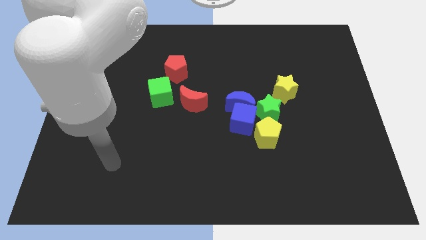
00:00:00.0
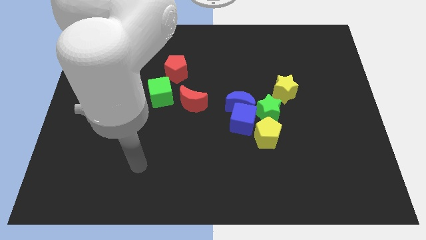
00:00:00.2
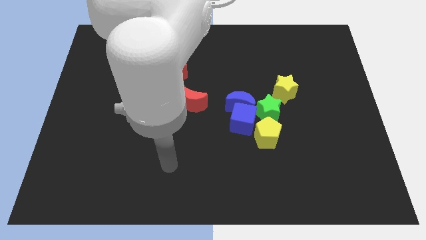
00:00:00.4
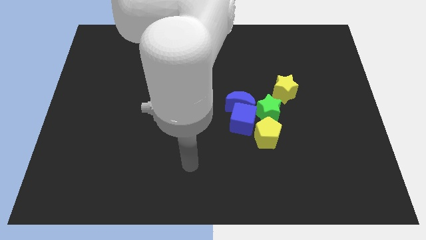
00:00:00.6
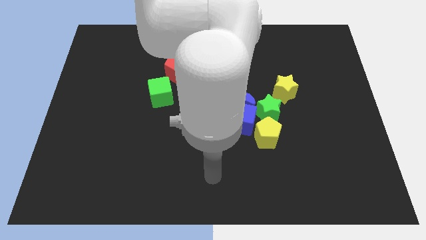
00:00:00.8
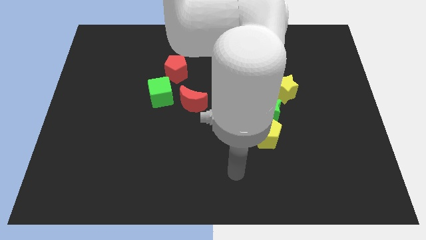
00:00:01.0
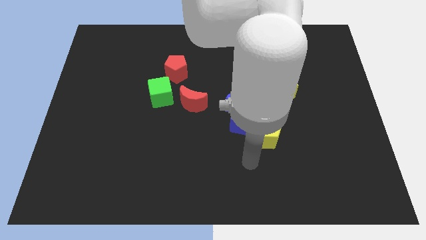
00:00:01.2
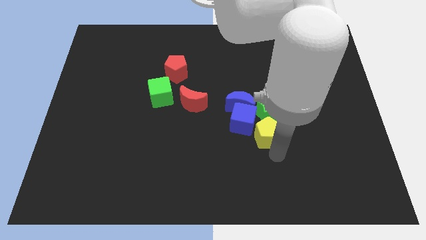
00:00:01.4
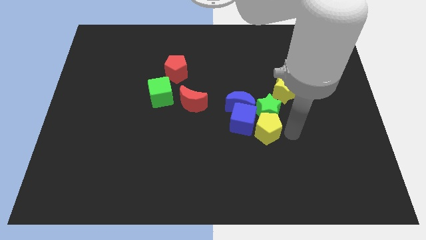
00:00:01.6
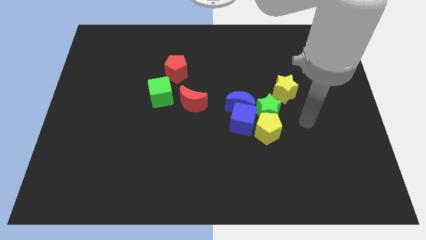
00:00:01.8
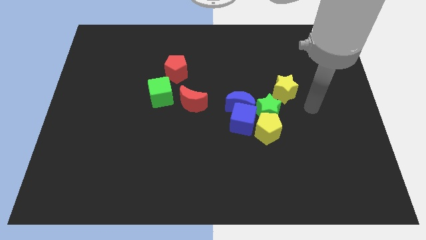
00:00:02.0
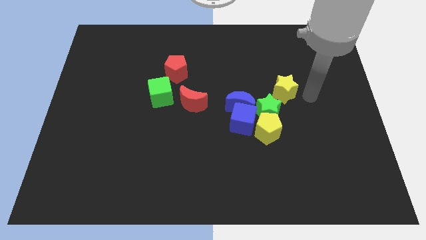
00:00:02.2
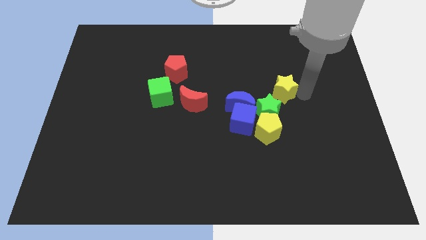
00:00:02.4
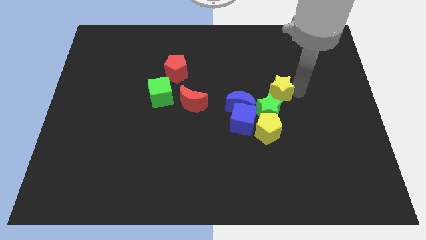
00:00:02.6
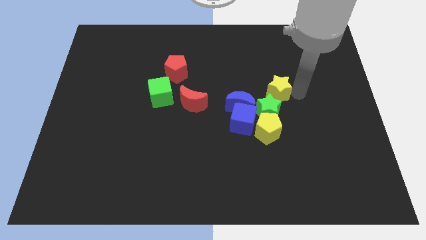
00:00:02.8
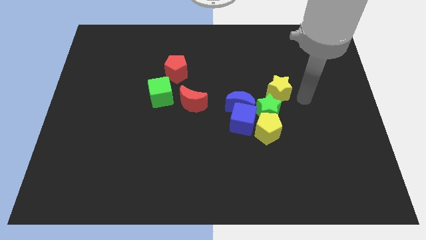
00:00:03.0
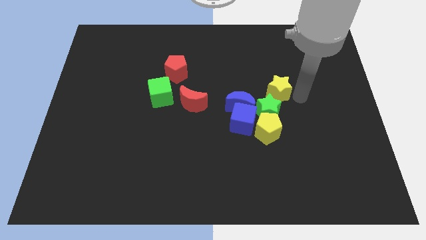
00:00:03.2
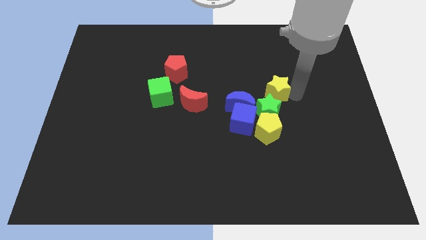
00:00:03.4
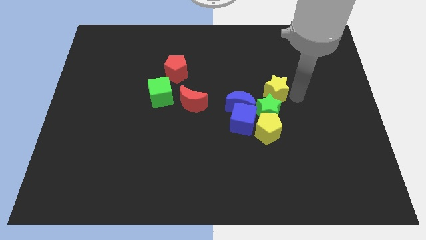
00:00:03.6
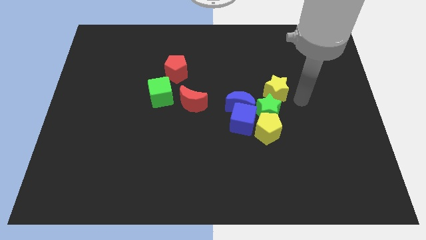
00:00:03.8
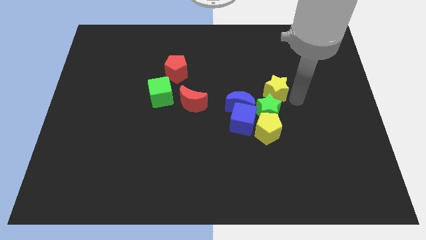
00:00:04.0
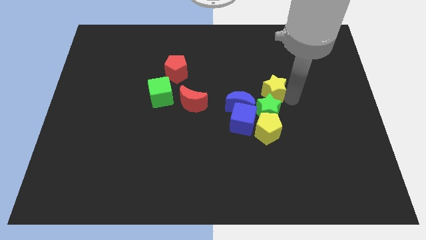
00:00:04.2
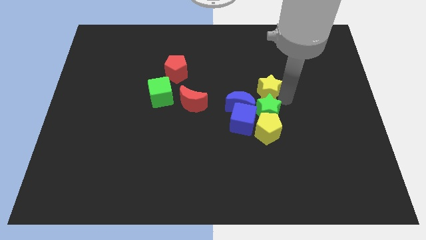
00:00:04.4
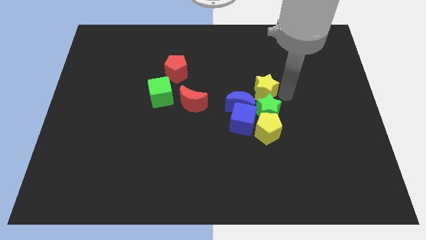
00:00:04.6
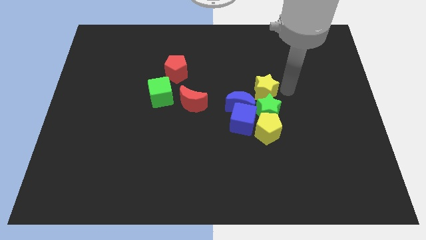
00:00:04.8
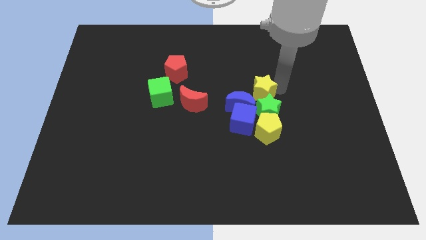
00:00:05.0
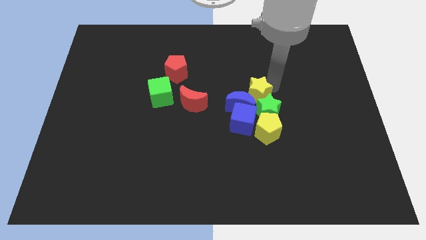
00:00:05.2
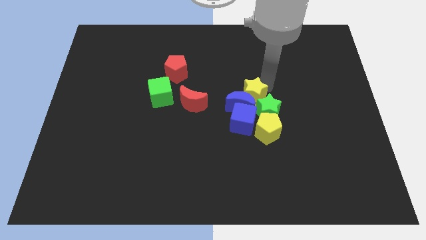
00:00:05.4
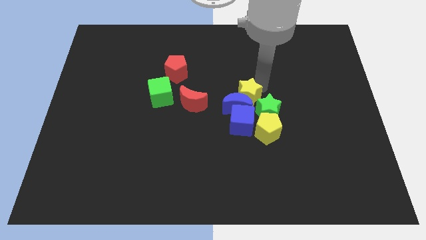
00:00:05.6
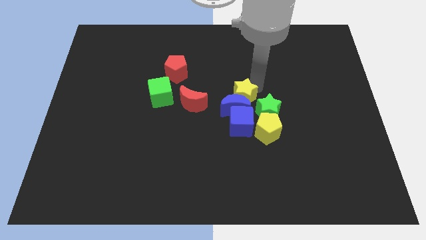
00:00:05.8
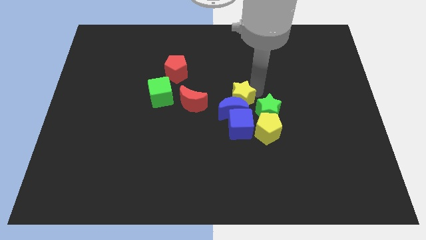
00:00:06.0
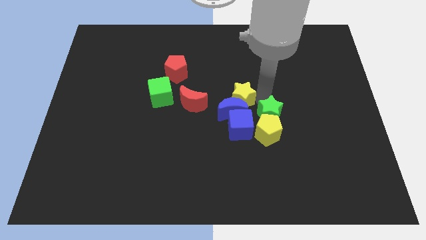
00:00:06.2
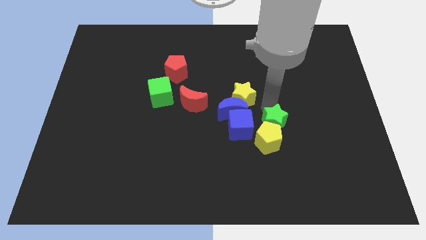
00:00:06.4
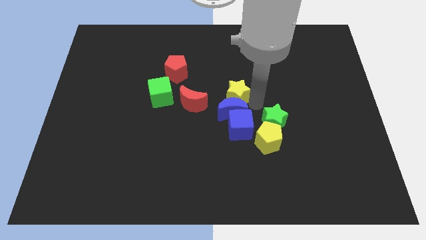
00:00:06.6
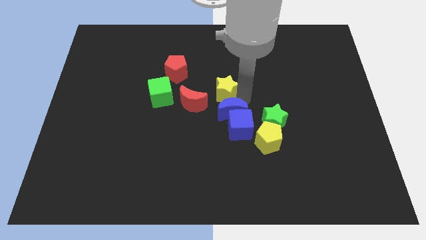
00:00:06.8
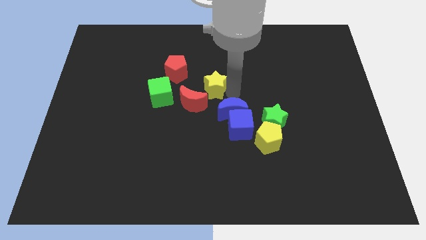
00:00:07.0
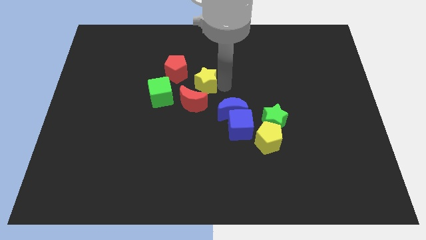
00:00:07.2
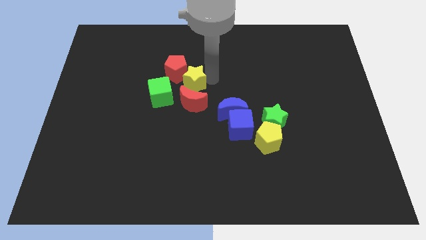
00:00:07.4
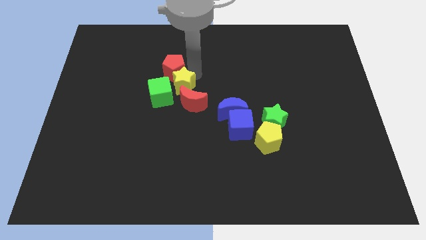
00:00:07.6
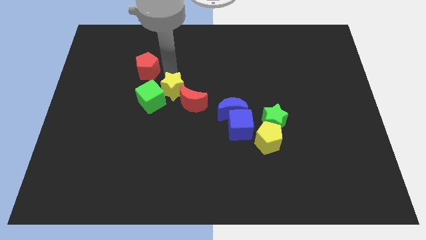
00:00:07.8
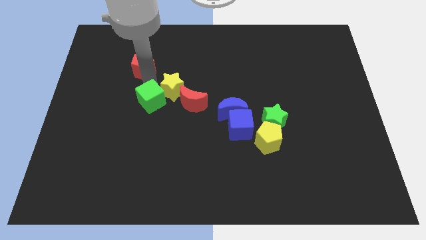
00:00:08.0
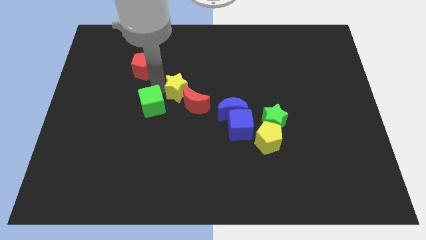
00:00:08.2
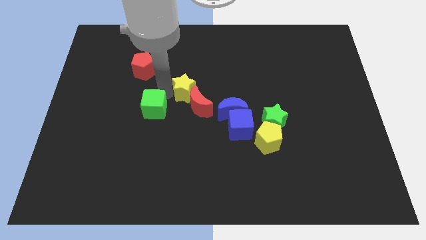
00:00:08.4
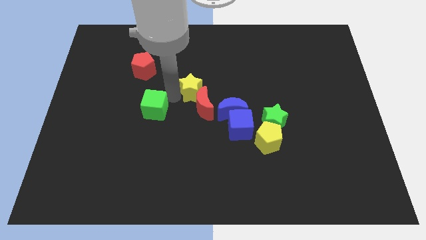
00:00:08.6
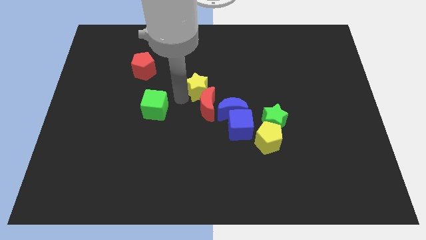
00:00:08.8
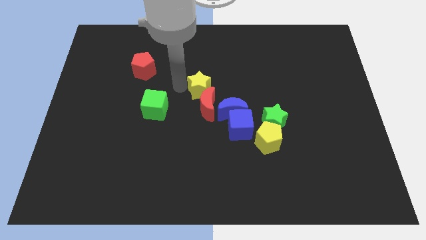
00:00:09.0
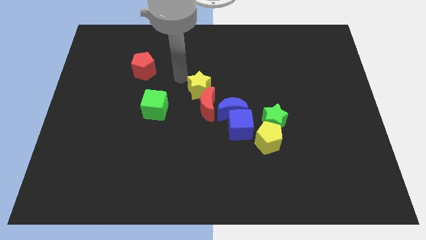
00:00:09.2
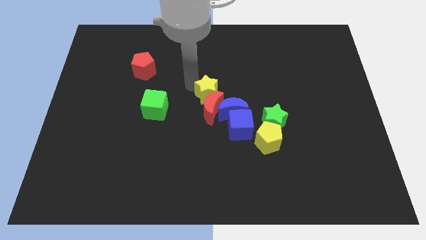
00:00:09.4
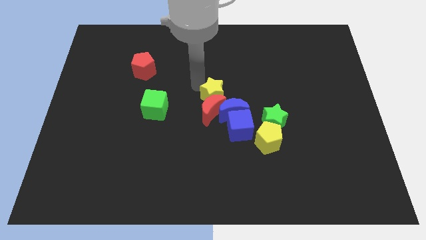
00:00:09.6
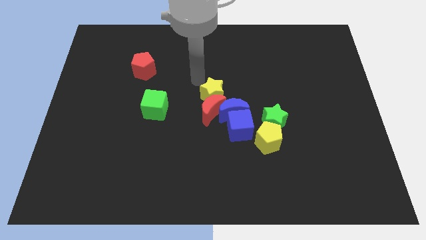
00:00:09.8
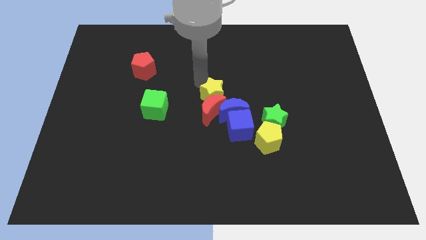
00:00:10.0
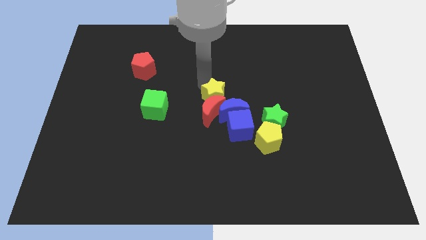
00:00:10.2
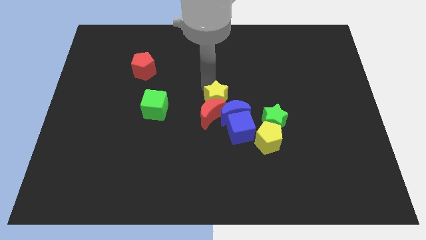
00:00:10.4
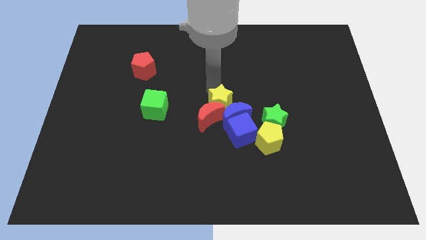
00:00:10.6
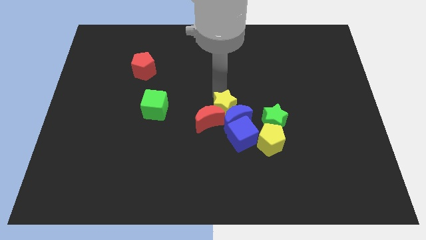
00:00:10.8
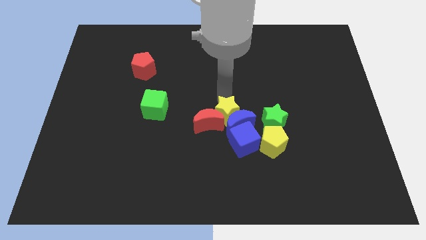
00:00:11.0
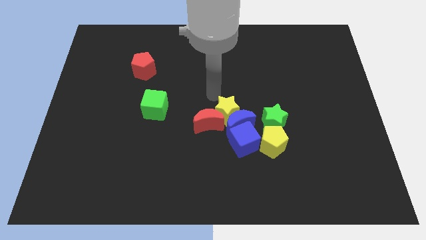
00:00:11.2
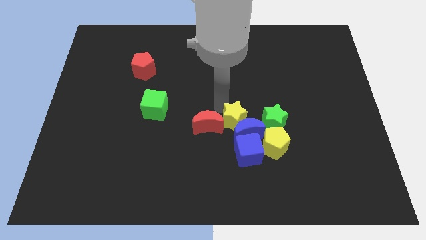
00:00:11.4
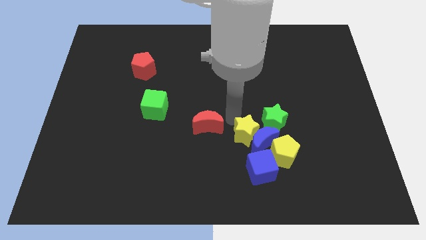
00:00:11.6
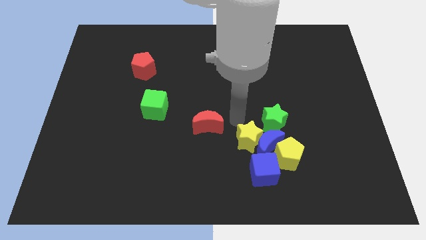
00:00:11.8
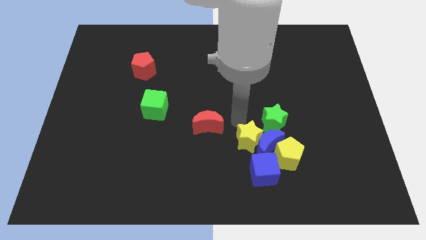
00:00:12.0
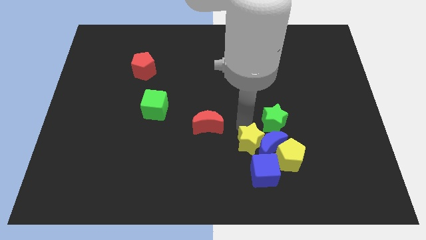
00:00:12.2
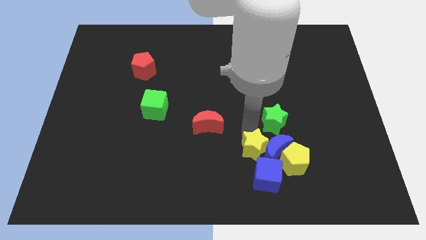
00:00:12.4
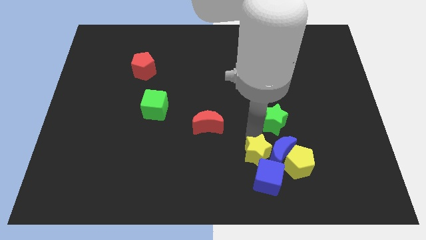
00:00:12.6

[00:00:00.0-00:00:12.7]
put the yellow star towards the blue cube
